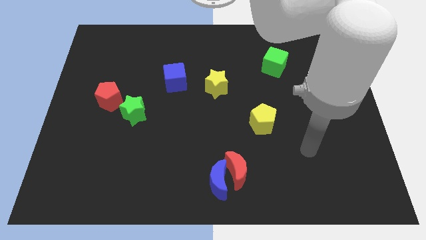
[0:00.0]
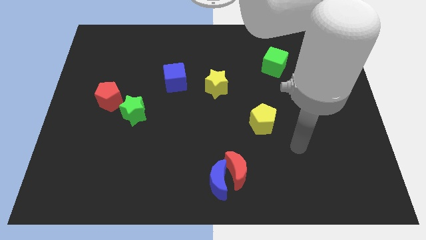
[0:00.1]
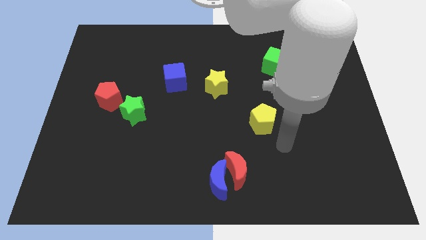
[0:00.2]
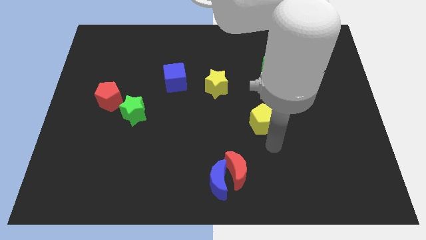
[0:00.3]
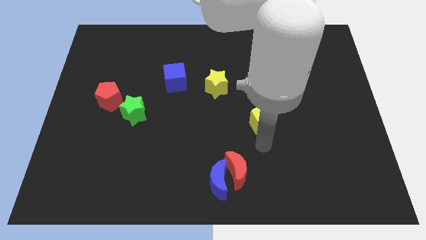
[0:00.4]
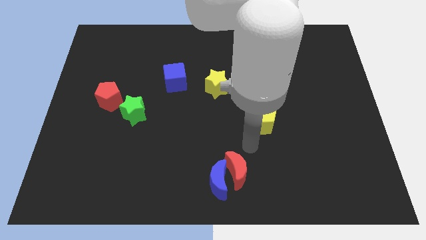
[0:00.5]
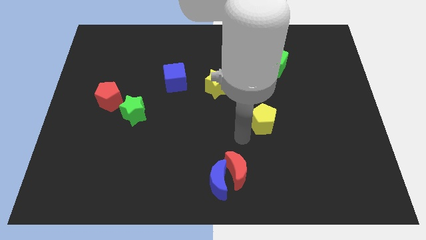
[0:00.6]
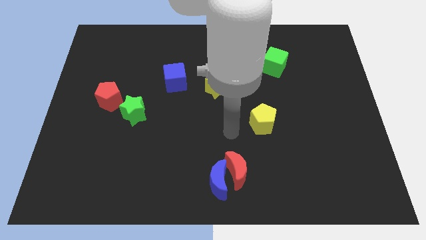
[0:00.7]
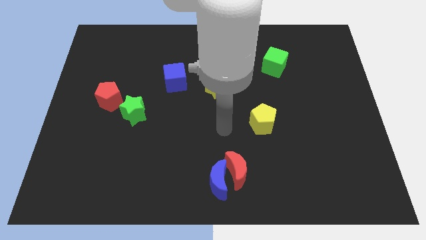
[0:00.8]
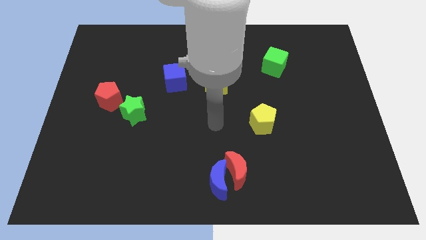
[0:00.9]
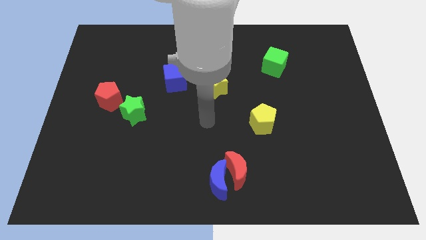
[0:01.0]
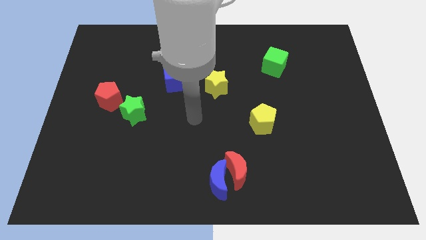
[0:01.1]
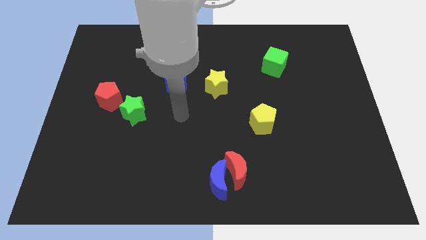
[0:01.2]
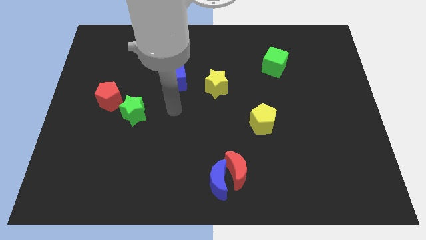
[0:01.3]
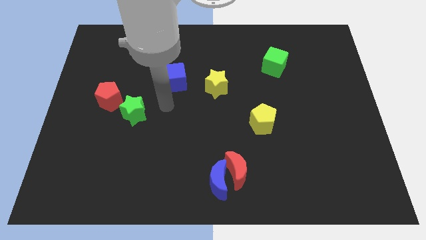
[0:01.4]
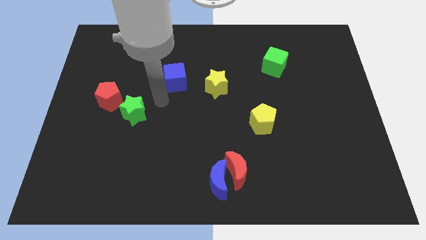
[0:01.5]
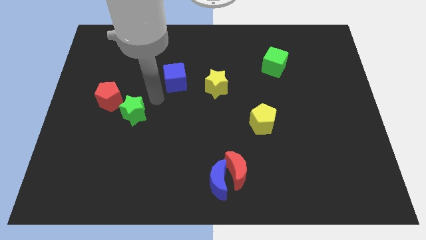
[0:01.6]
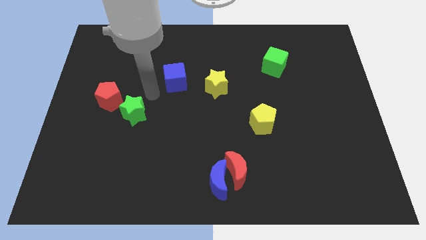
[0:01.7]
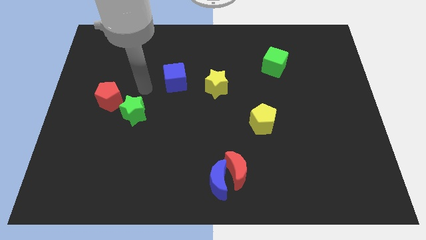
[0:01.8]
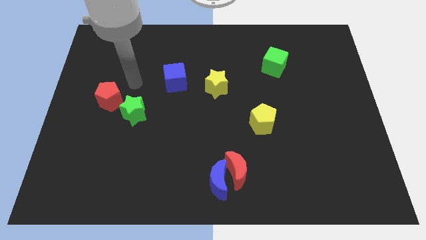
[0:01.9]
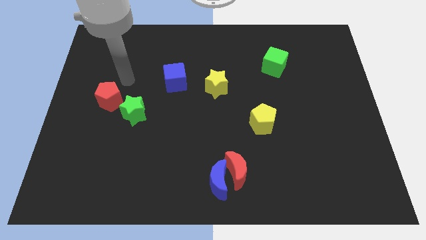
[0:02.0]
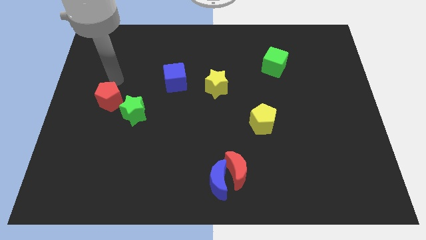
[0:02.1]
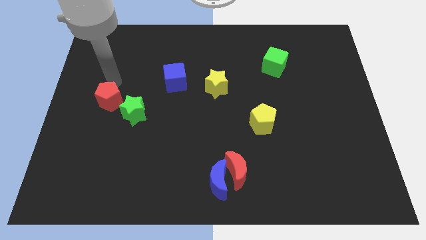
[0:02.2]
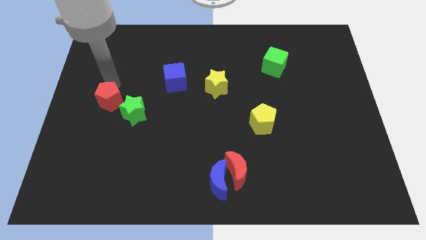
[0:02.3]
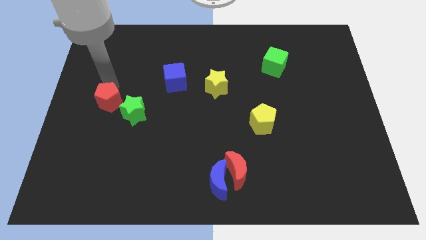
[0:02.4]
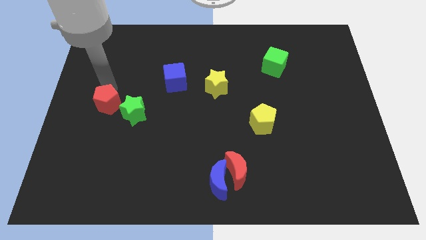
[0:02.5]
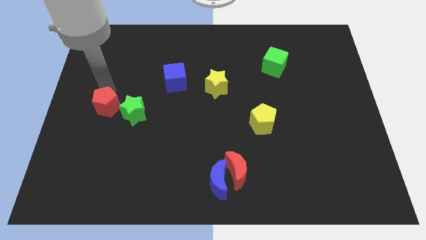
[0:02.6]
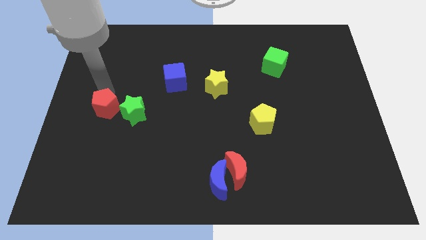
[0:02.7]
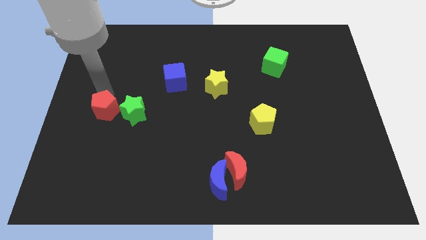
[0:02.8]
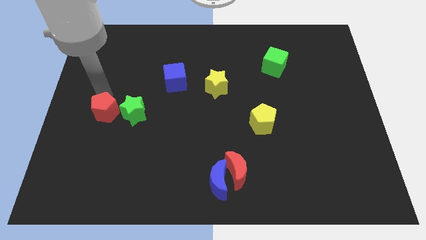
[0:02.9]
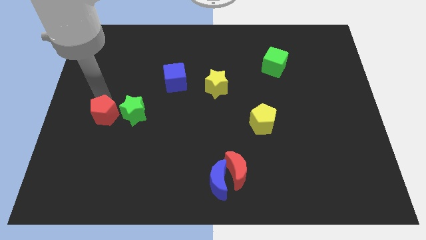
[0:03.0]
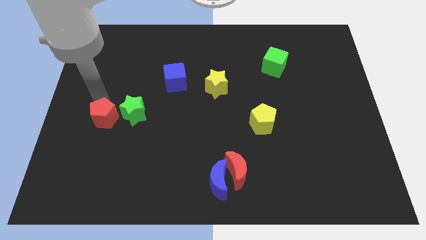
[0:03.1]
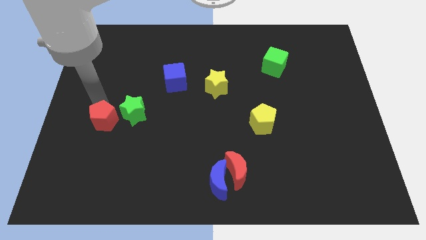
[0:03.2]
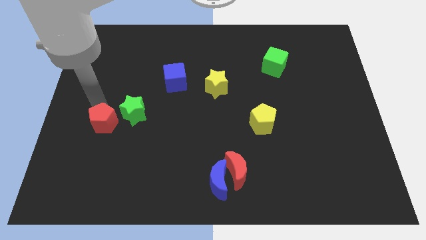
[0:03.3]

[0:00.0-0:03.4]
slightly move the red pentagon downwards

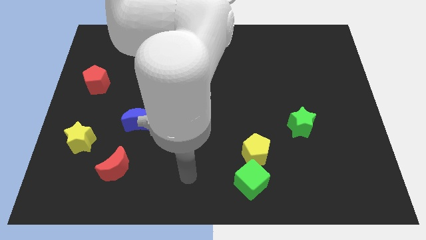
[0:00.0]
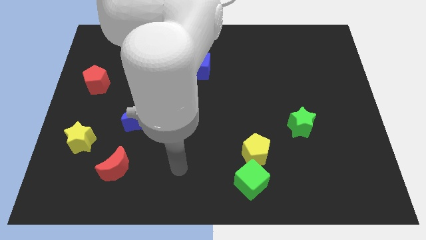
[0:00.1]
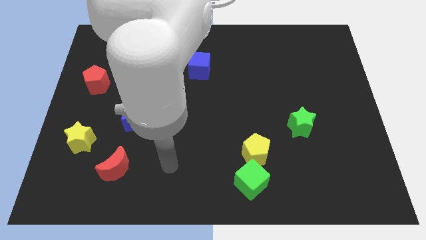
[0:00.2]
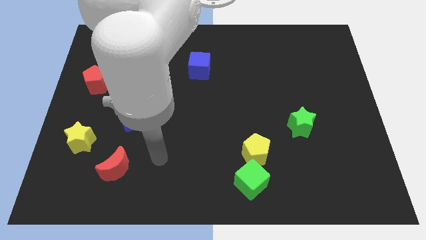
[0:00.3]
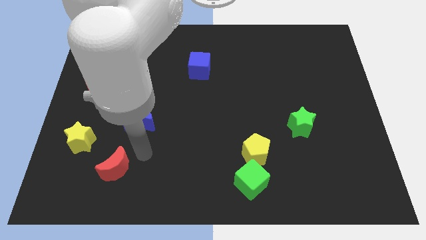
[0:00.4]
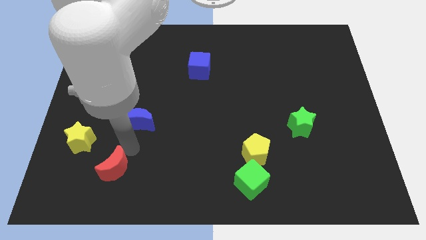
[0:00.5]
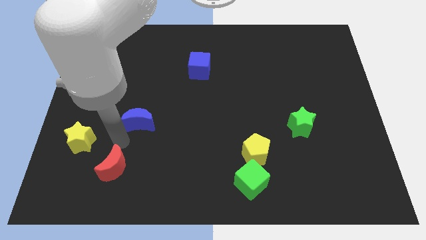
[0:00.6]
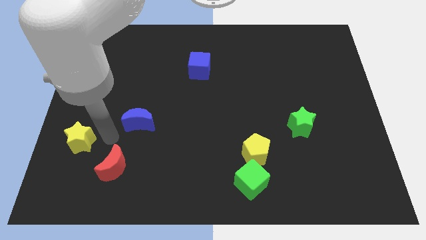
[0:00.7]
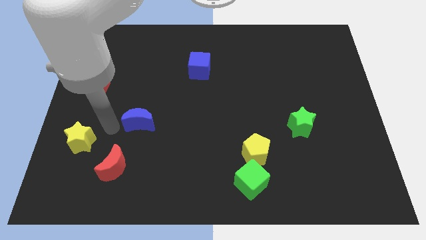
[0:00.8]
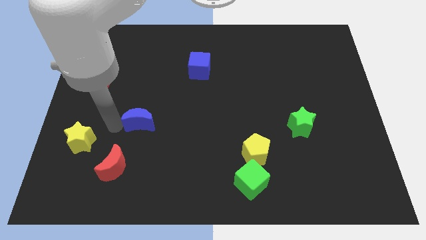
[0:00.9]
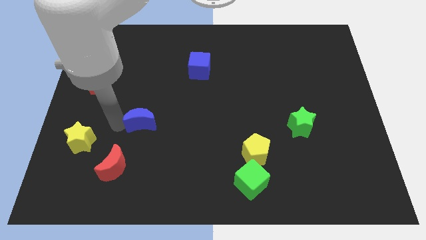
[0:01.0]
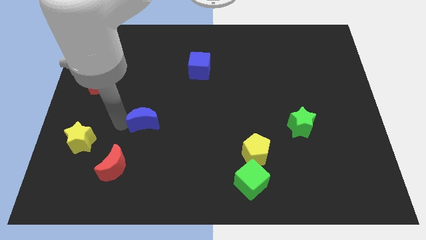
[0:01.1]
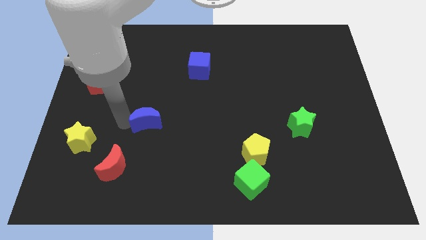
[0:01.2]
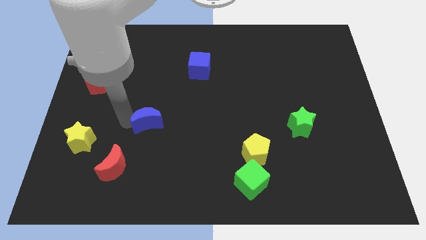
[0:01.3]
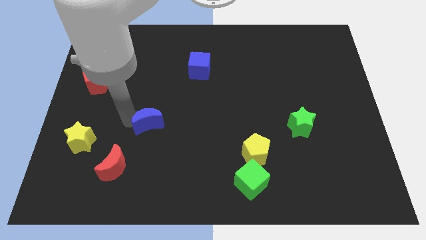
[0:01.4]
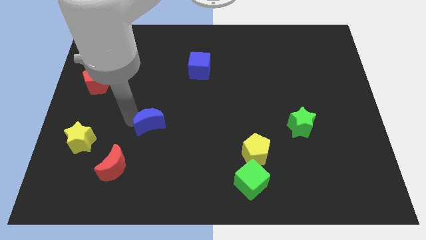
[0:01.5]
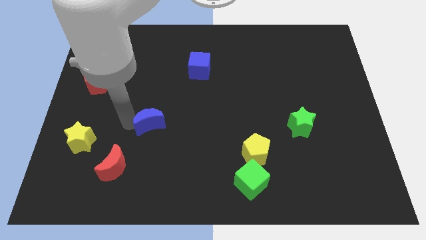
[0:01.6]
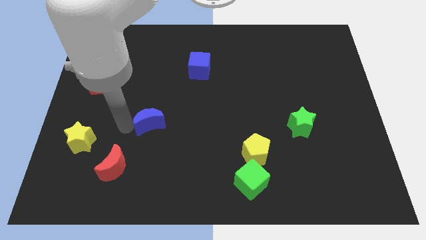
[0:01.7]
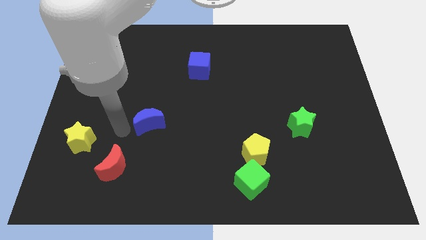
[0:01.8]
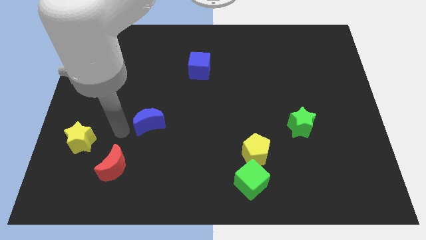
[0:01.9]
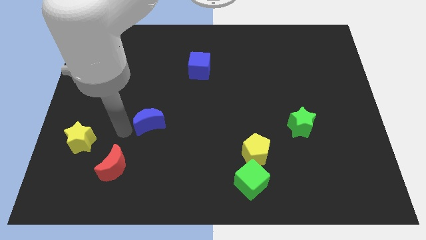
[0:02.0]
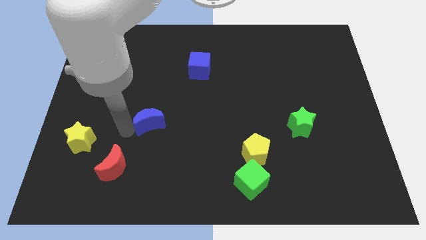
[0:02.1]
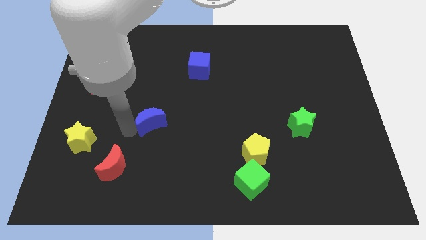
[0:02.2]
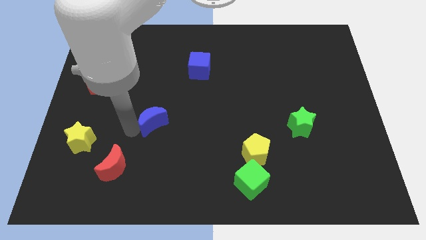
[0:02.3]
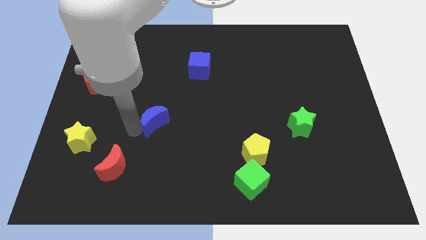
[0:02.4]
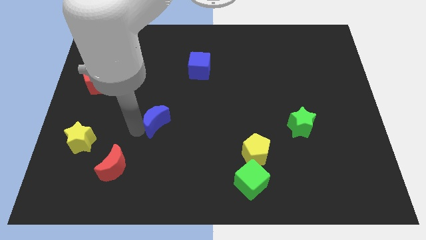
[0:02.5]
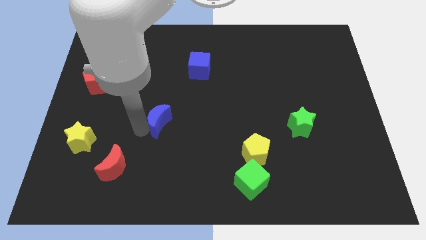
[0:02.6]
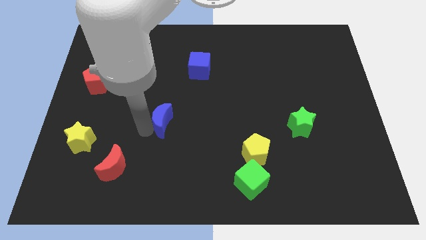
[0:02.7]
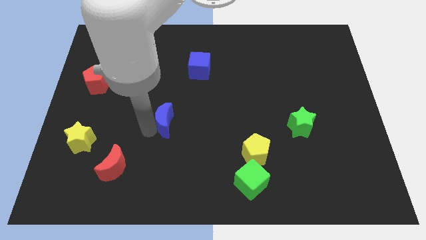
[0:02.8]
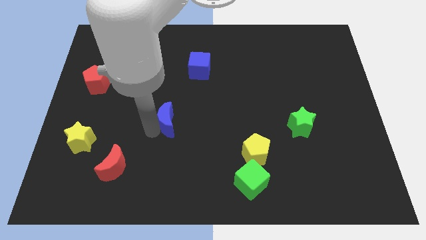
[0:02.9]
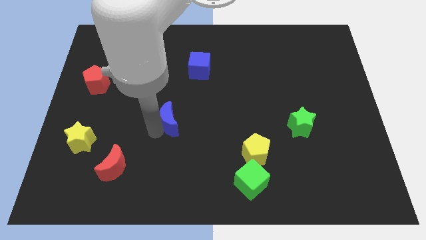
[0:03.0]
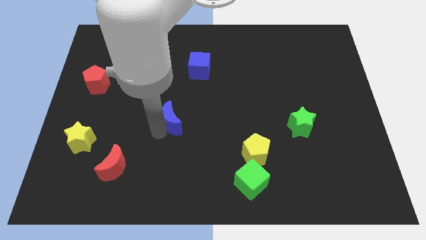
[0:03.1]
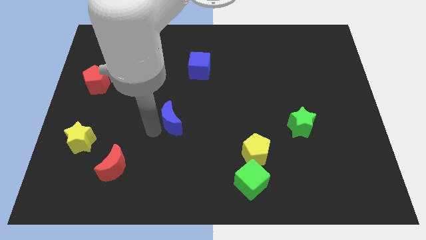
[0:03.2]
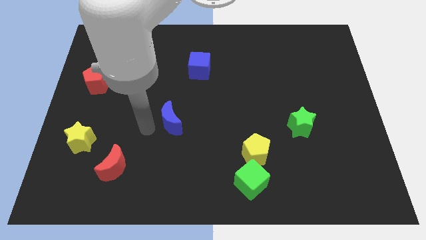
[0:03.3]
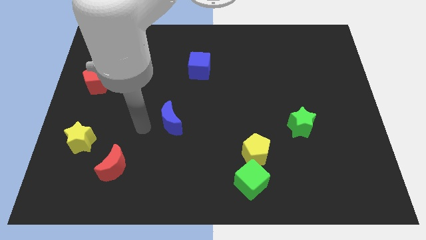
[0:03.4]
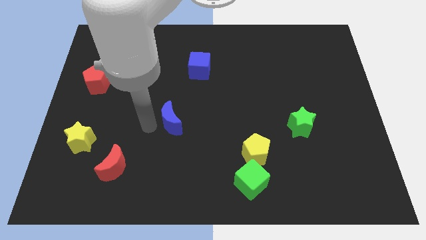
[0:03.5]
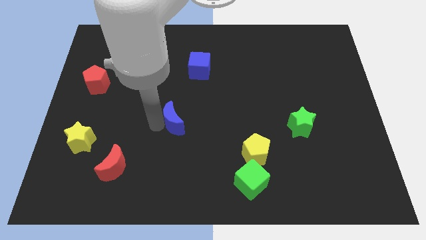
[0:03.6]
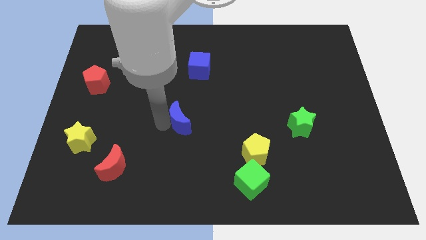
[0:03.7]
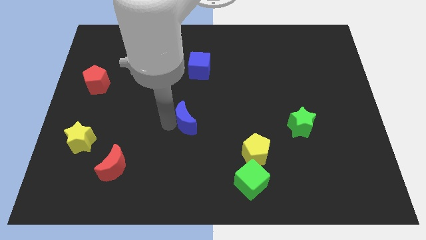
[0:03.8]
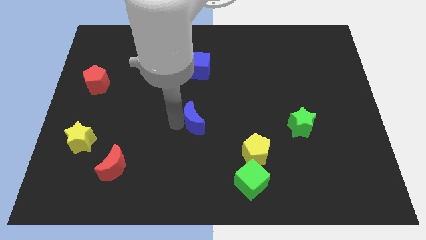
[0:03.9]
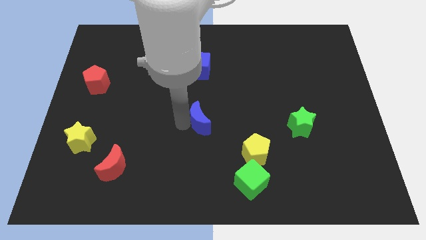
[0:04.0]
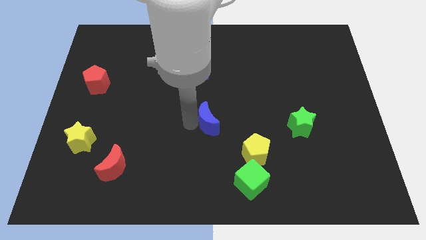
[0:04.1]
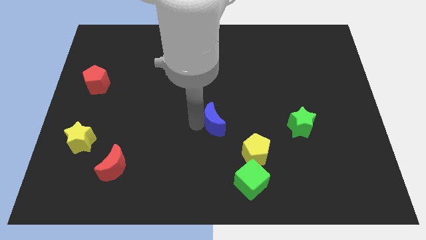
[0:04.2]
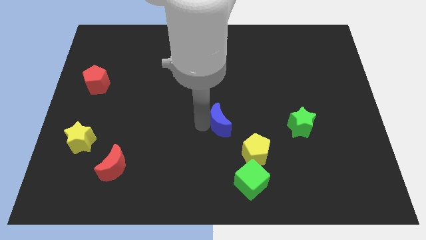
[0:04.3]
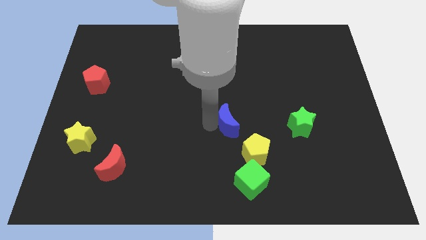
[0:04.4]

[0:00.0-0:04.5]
slide the blue moon to the right
